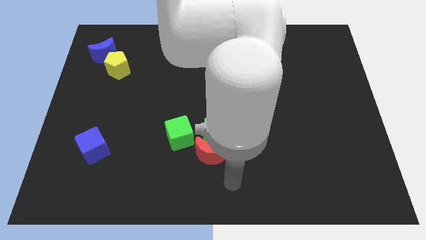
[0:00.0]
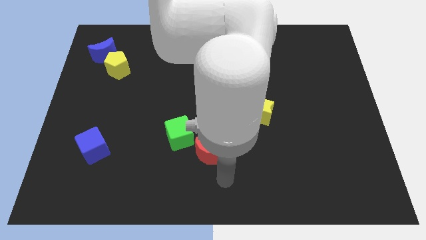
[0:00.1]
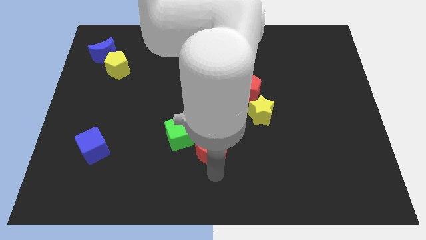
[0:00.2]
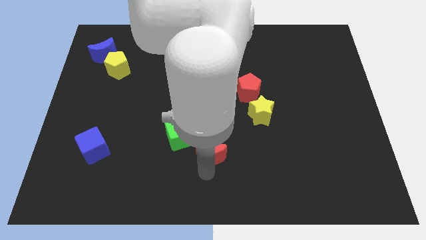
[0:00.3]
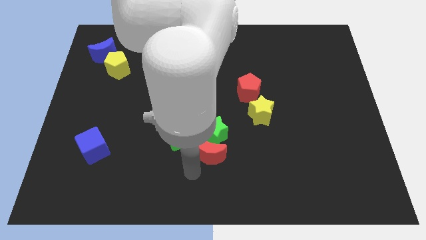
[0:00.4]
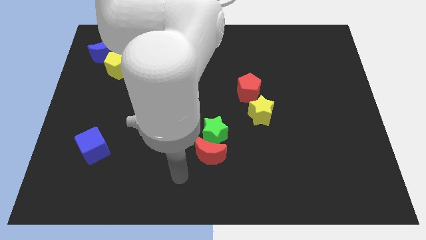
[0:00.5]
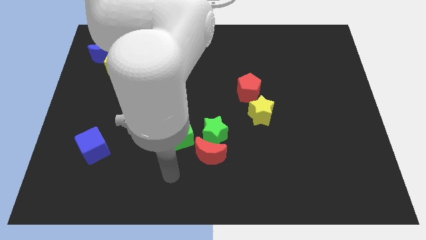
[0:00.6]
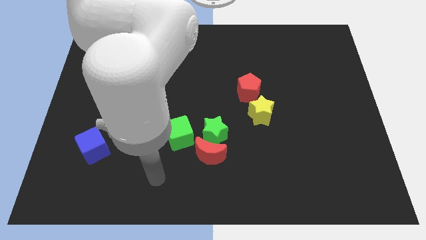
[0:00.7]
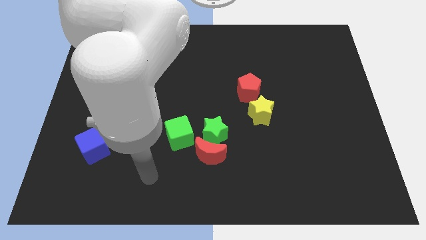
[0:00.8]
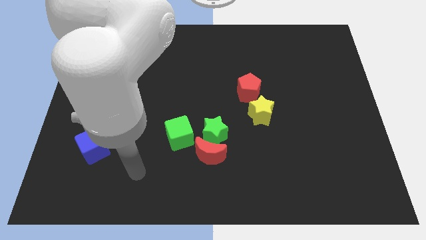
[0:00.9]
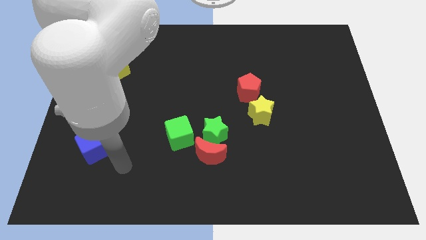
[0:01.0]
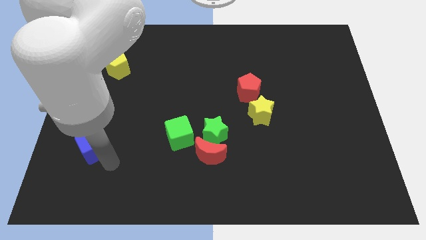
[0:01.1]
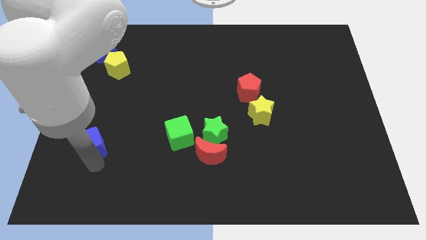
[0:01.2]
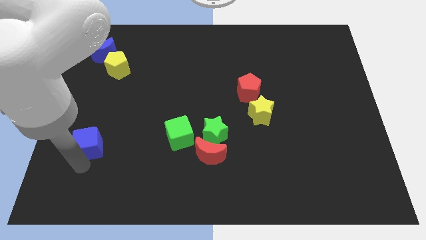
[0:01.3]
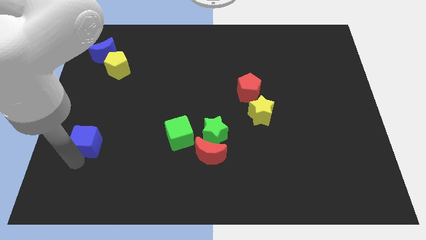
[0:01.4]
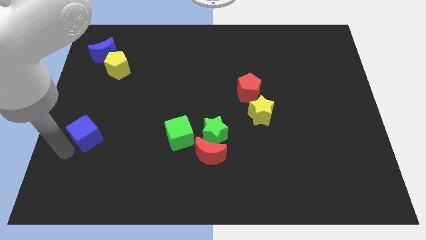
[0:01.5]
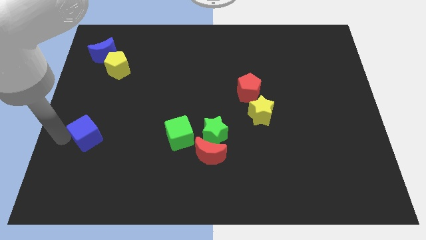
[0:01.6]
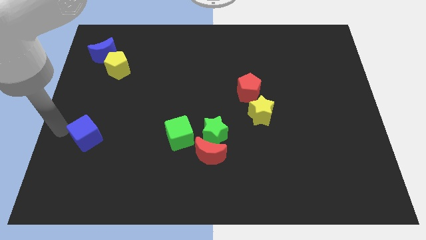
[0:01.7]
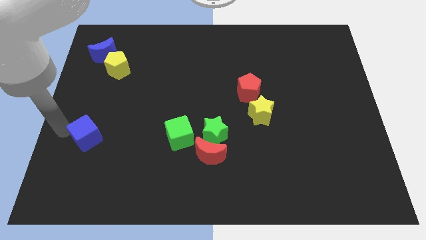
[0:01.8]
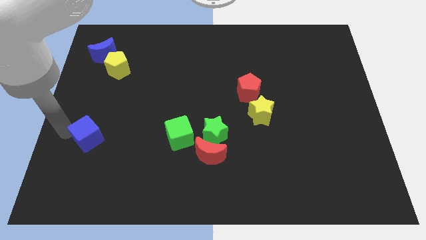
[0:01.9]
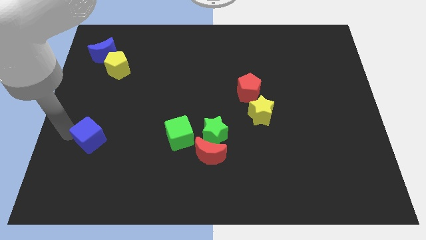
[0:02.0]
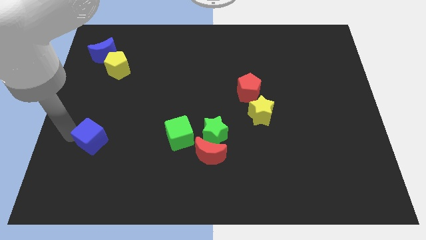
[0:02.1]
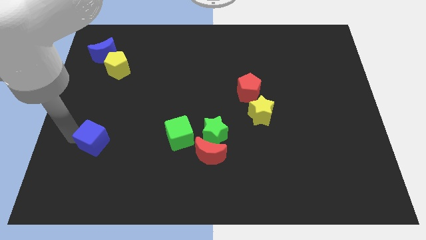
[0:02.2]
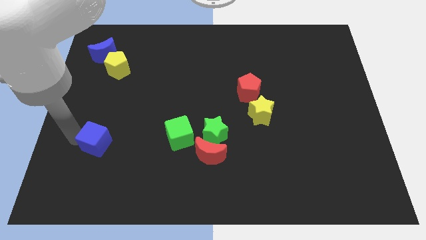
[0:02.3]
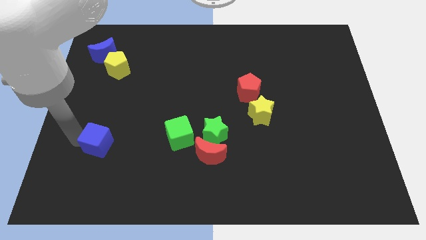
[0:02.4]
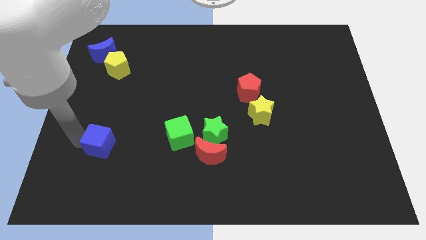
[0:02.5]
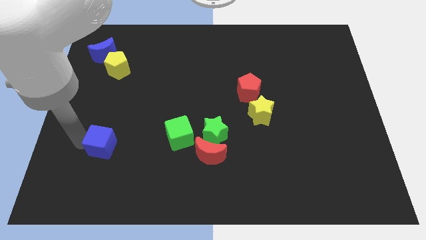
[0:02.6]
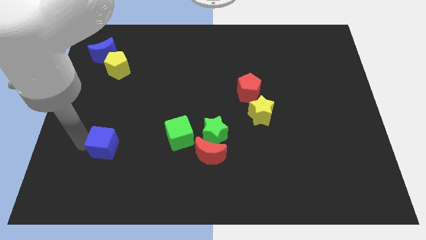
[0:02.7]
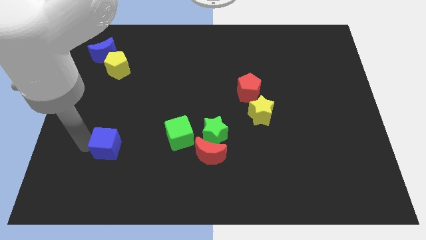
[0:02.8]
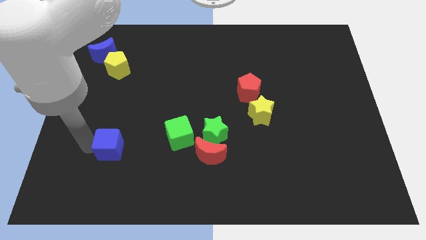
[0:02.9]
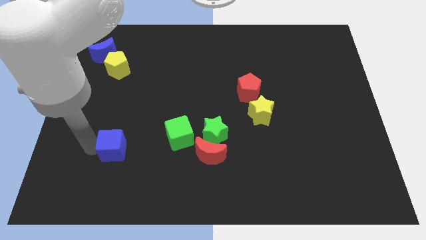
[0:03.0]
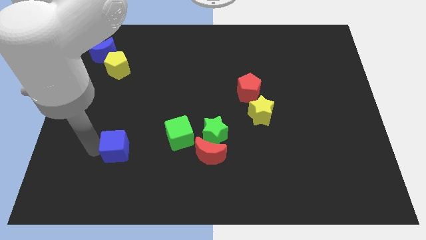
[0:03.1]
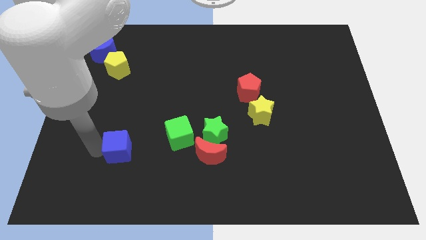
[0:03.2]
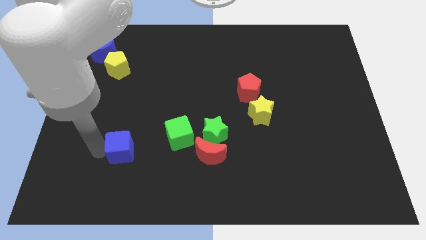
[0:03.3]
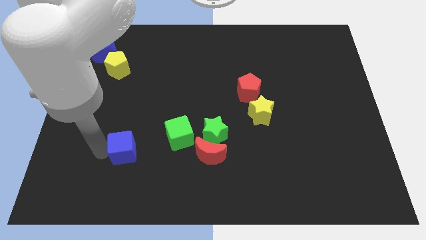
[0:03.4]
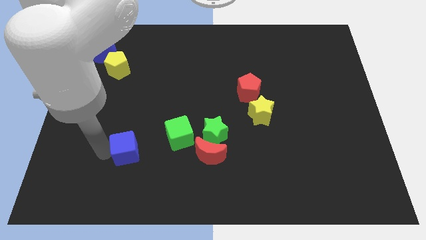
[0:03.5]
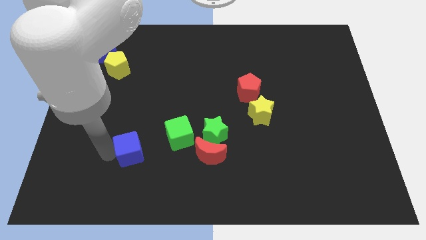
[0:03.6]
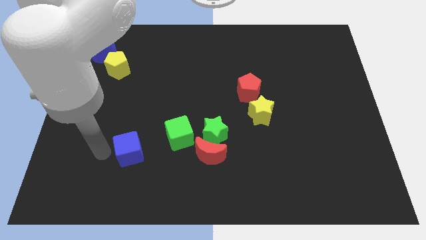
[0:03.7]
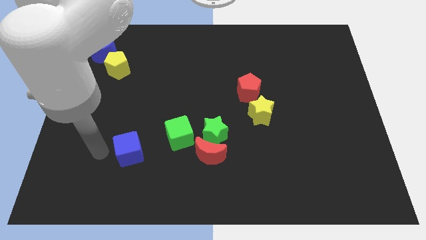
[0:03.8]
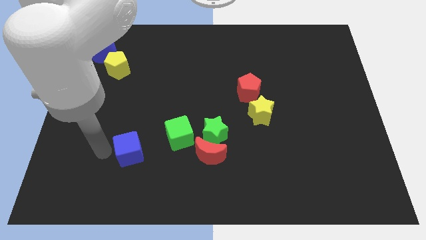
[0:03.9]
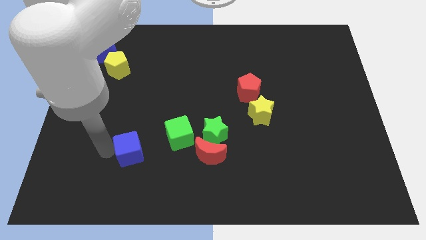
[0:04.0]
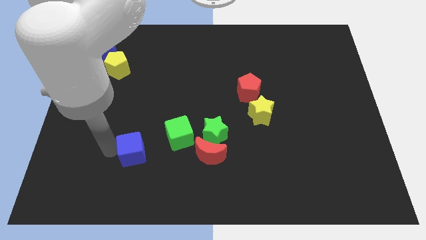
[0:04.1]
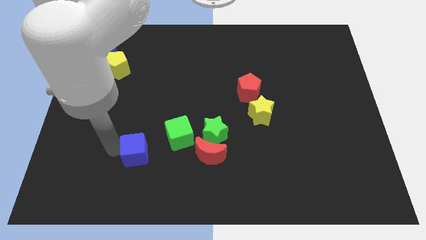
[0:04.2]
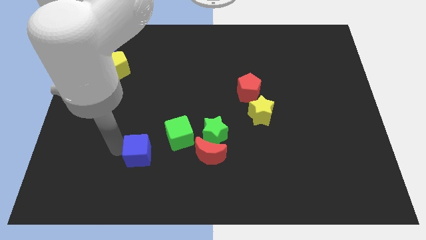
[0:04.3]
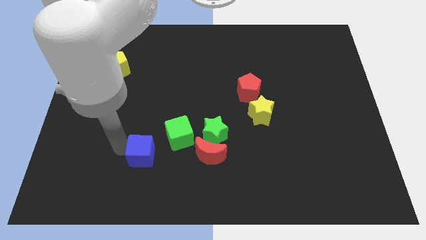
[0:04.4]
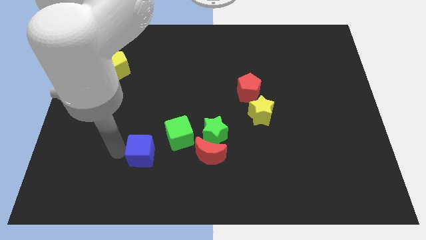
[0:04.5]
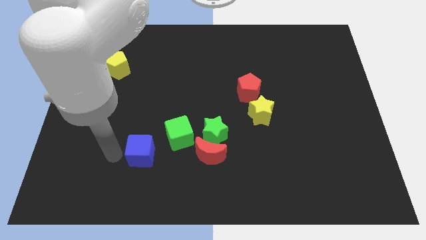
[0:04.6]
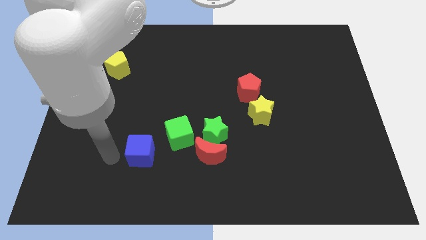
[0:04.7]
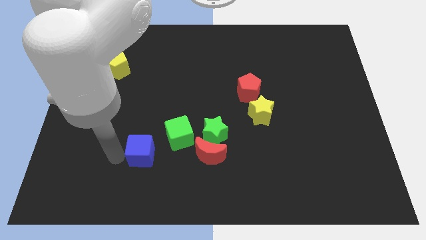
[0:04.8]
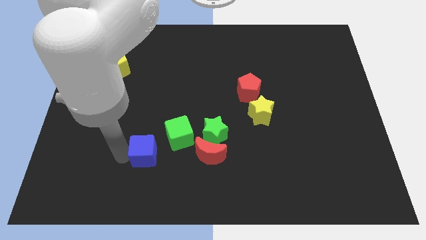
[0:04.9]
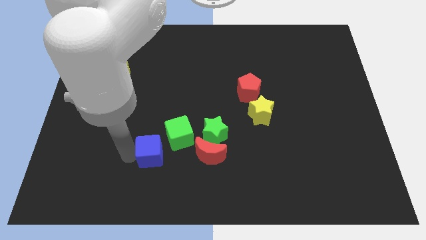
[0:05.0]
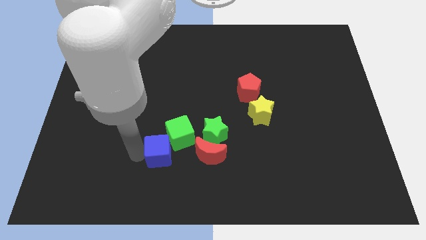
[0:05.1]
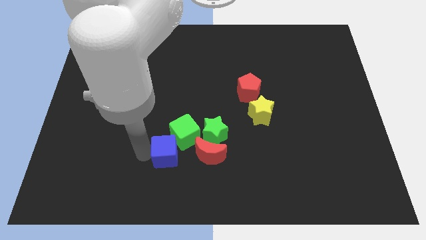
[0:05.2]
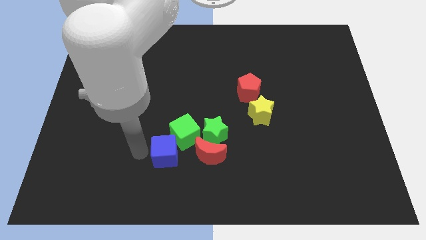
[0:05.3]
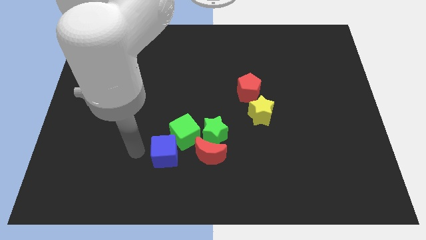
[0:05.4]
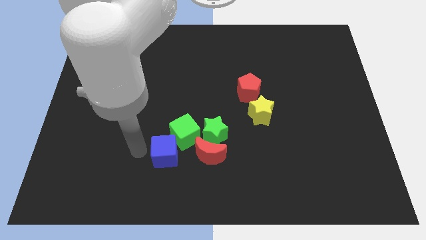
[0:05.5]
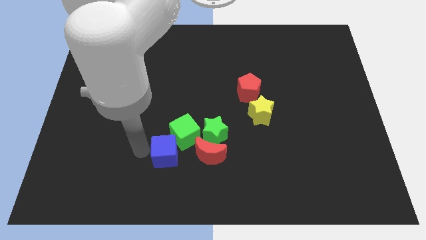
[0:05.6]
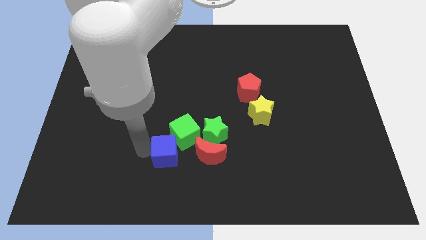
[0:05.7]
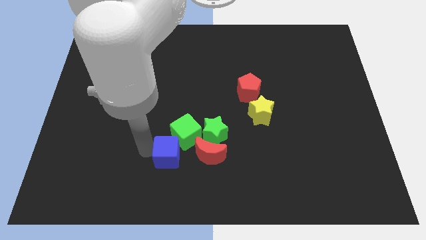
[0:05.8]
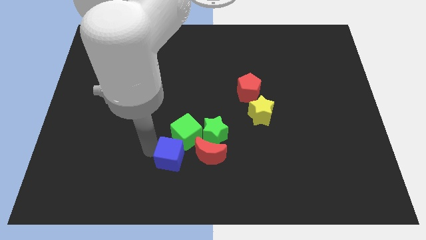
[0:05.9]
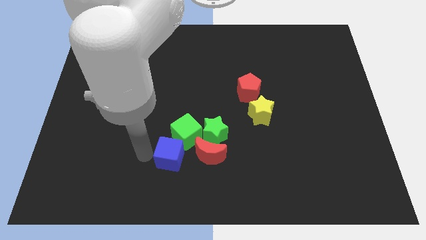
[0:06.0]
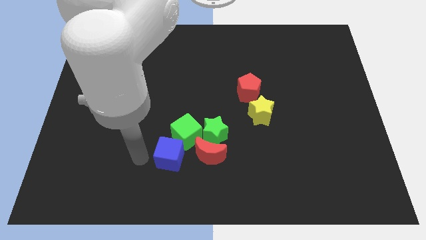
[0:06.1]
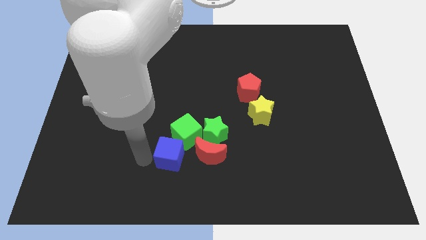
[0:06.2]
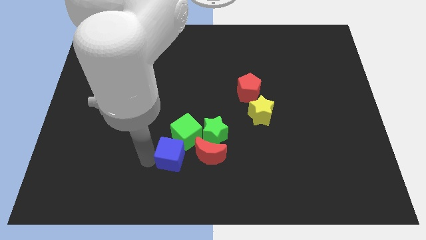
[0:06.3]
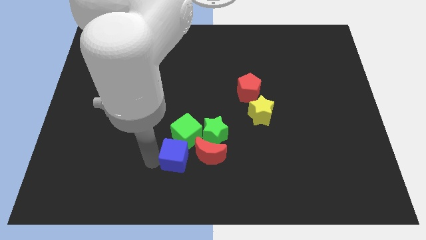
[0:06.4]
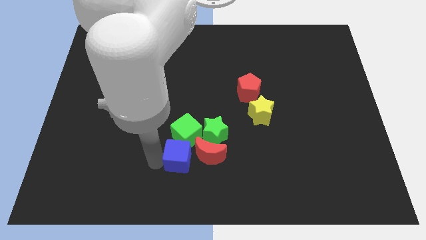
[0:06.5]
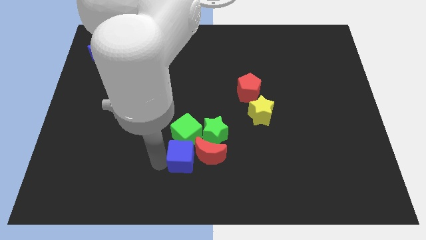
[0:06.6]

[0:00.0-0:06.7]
push the blue cube towards the red moon

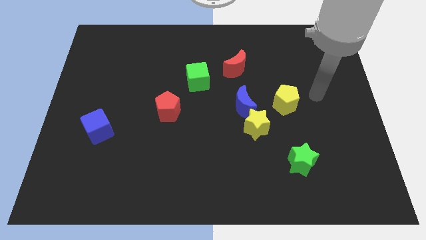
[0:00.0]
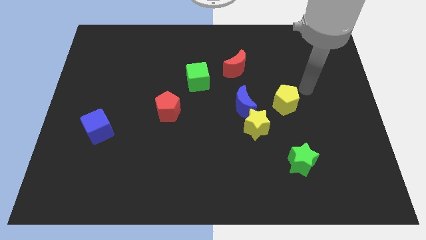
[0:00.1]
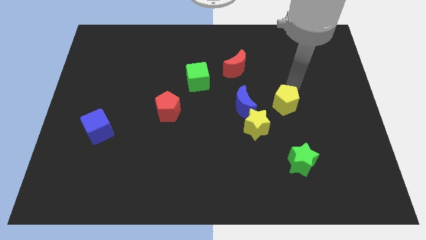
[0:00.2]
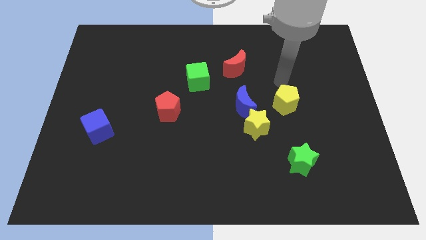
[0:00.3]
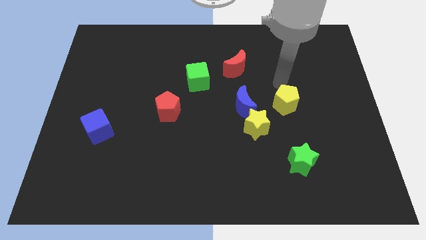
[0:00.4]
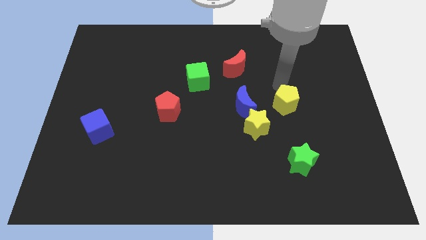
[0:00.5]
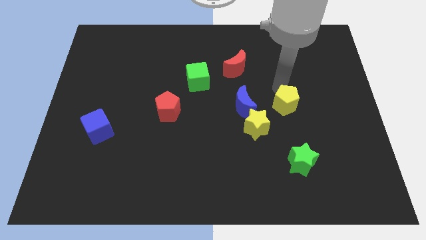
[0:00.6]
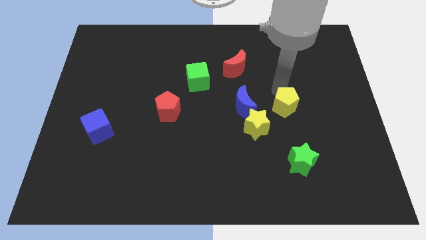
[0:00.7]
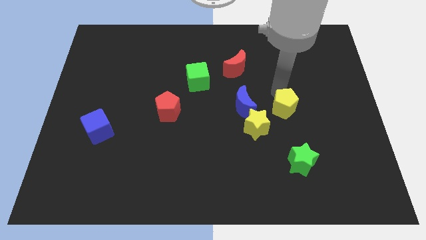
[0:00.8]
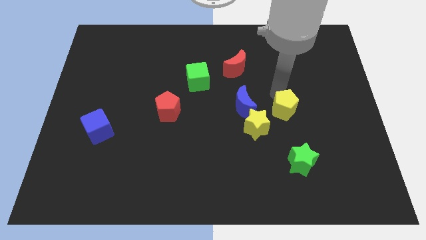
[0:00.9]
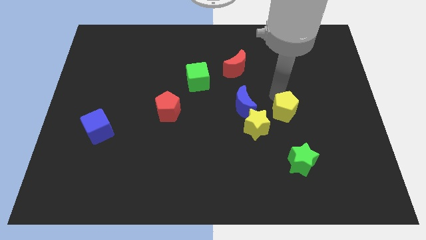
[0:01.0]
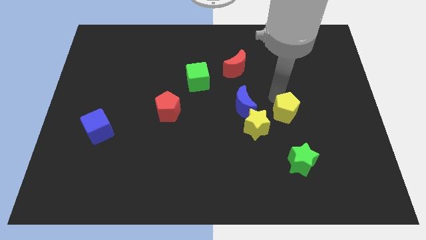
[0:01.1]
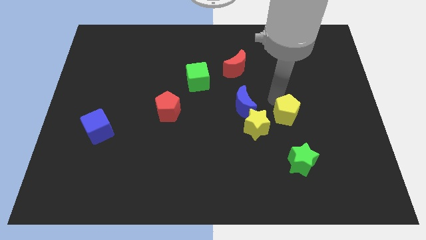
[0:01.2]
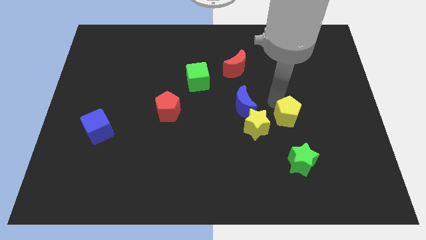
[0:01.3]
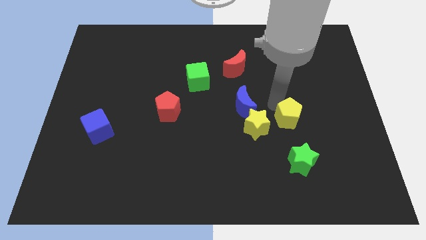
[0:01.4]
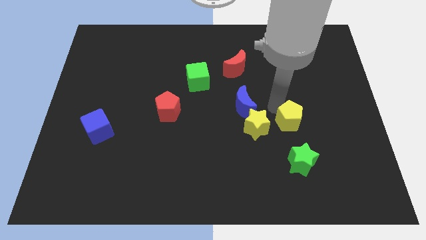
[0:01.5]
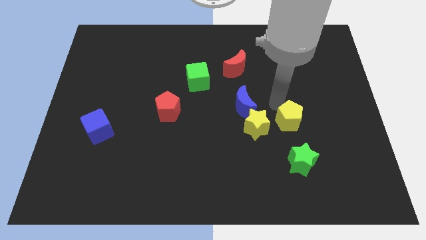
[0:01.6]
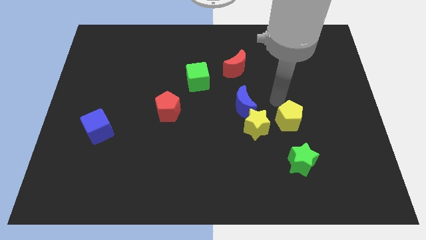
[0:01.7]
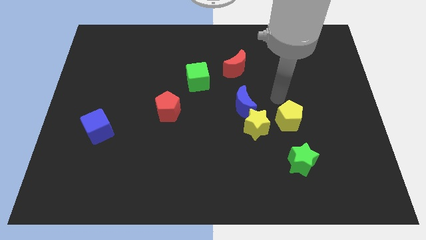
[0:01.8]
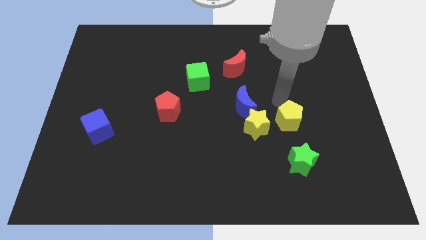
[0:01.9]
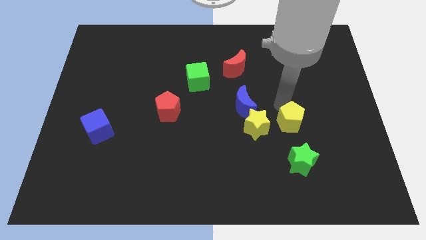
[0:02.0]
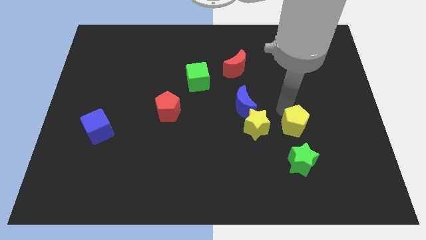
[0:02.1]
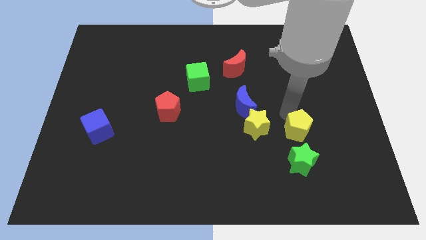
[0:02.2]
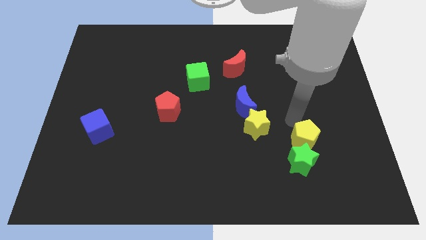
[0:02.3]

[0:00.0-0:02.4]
put the yellow pentagon next to the green star
